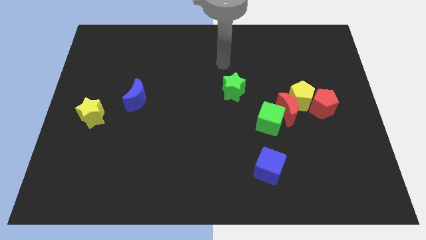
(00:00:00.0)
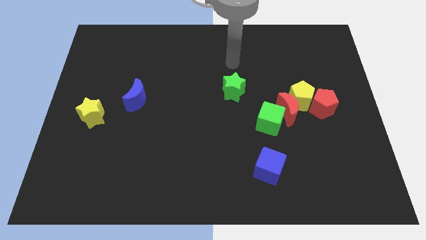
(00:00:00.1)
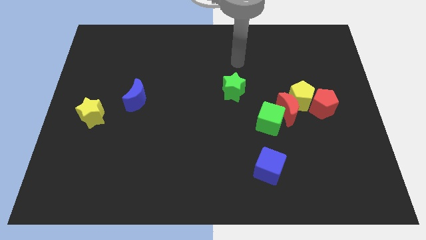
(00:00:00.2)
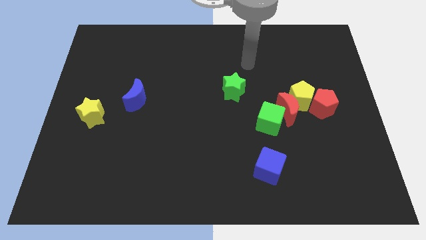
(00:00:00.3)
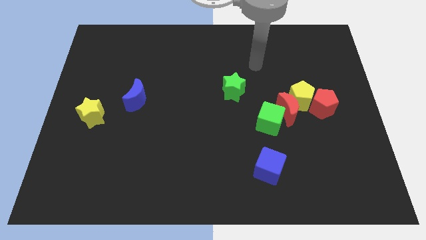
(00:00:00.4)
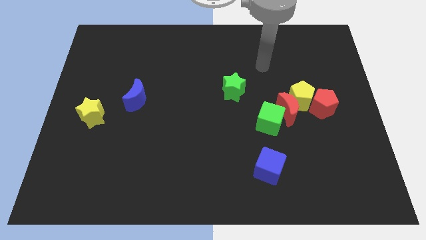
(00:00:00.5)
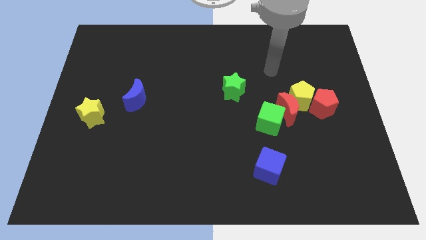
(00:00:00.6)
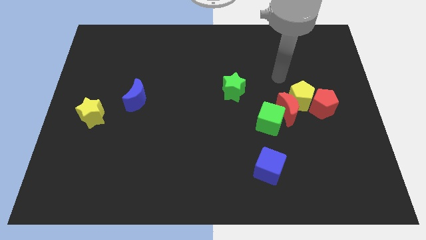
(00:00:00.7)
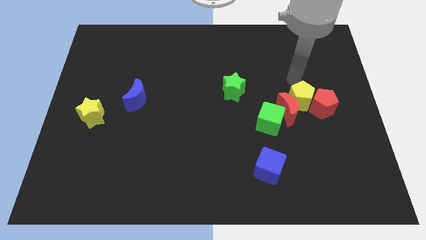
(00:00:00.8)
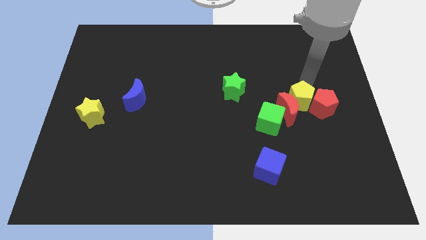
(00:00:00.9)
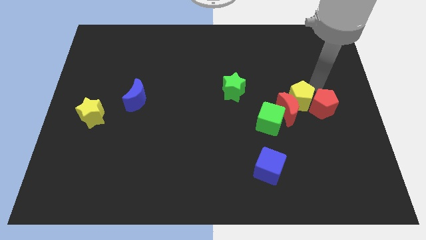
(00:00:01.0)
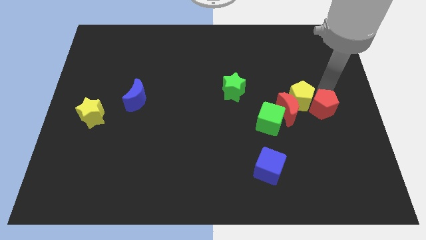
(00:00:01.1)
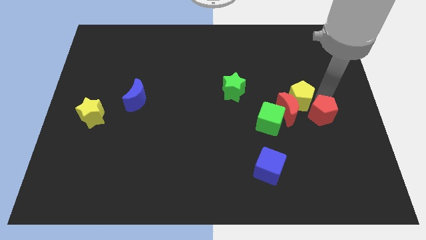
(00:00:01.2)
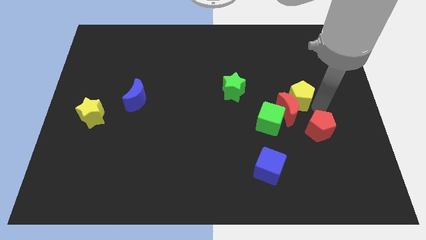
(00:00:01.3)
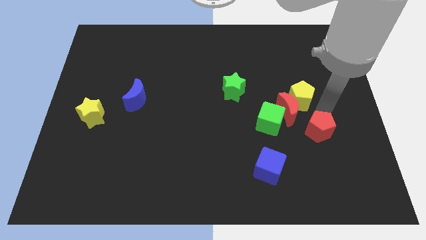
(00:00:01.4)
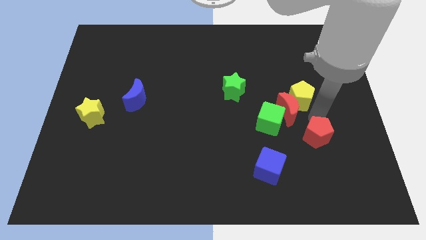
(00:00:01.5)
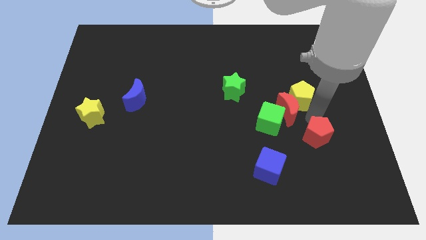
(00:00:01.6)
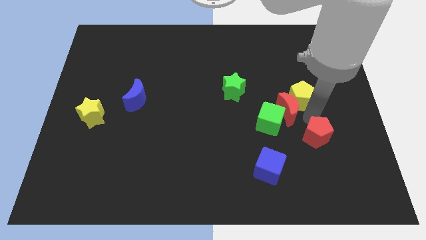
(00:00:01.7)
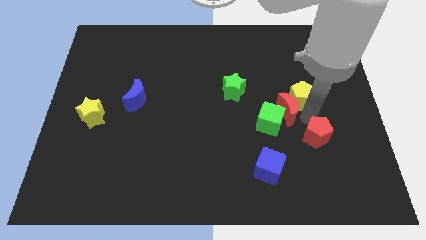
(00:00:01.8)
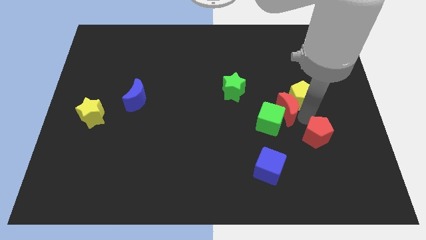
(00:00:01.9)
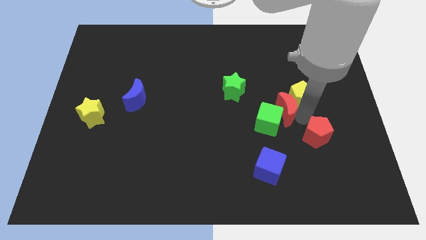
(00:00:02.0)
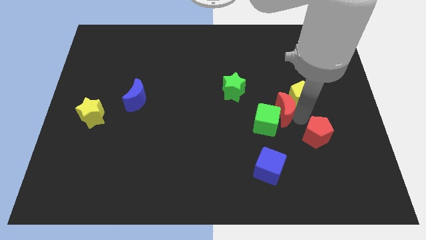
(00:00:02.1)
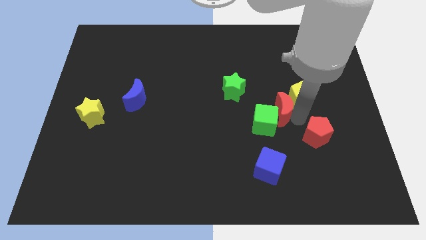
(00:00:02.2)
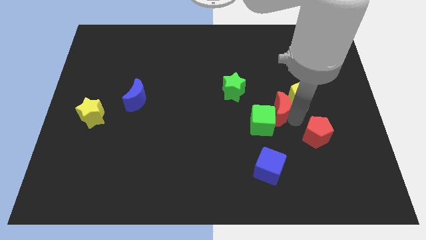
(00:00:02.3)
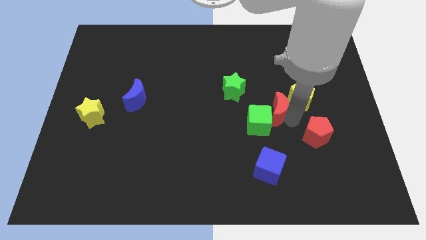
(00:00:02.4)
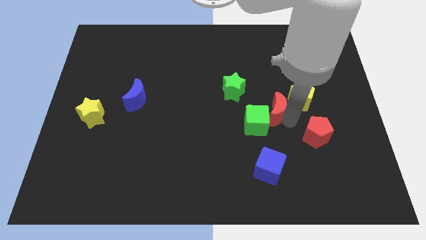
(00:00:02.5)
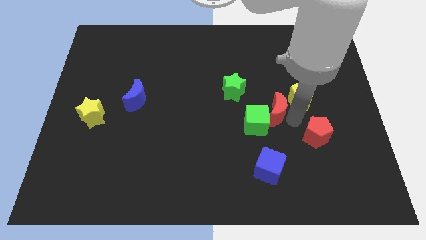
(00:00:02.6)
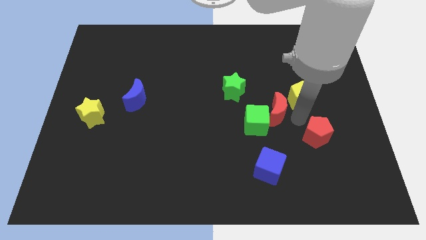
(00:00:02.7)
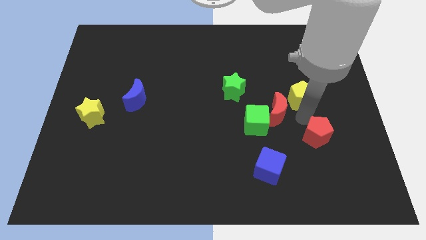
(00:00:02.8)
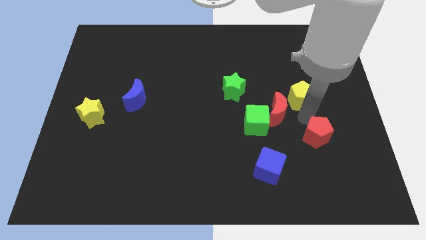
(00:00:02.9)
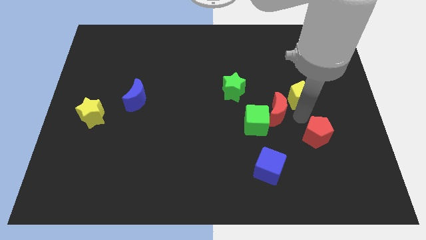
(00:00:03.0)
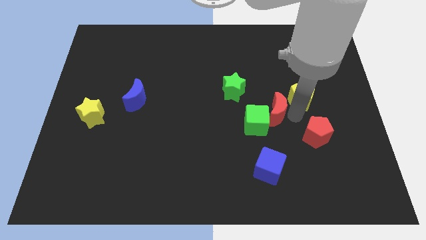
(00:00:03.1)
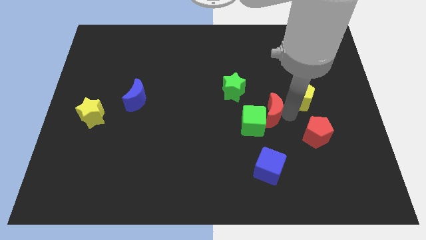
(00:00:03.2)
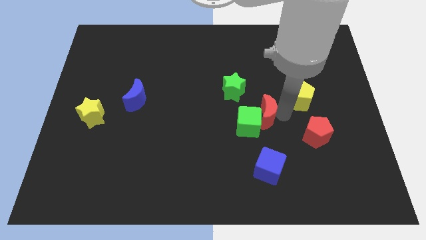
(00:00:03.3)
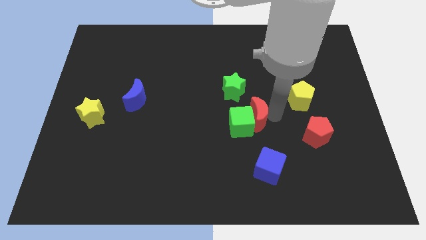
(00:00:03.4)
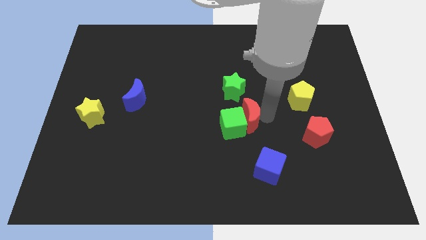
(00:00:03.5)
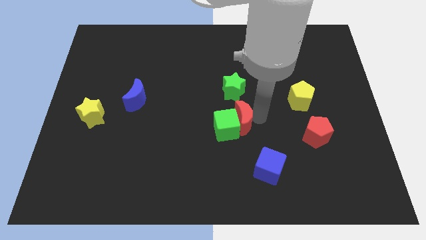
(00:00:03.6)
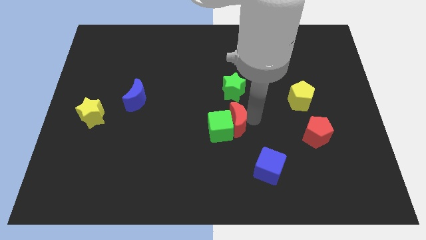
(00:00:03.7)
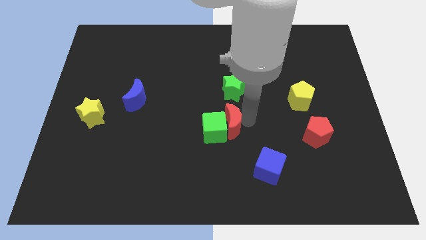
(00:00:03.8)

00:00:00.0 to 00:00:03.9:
move the red moon away from the group of blocks

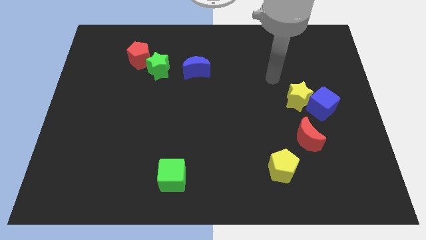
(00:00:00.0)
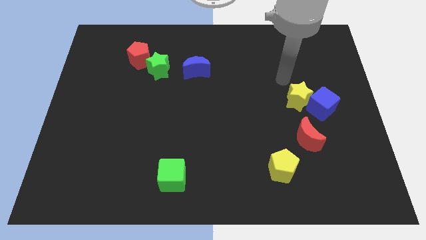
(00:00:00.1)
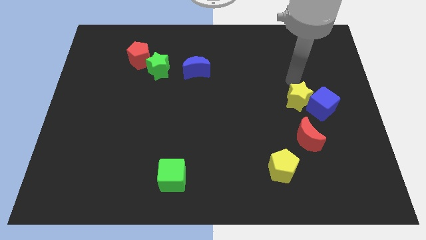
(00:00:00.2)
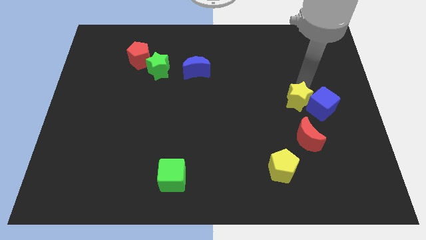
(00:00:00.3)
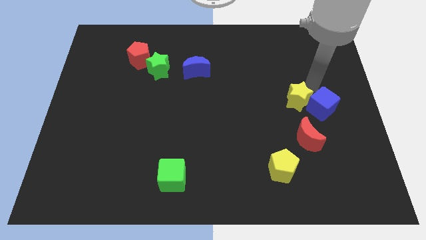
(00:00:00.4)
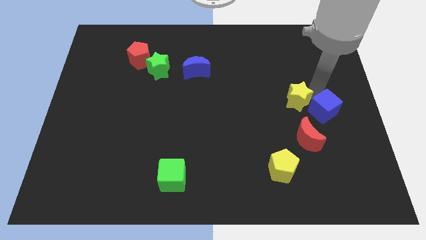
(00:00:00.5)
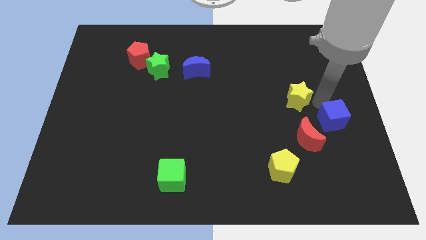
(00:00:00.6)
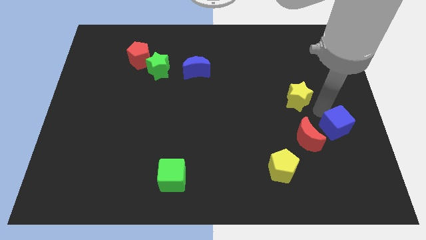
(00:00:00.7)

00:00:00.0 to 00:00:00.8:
move the yellow star away from the blue cube

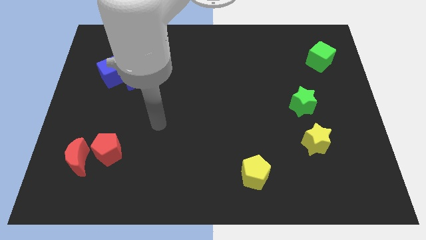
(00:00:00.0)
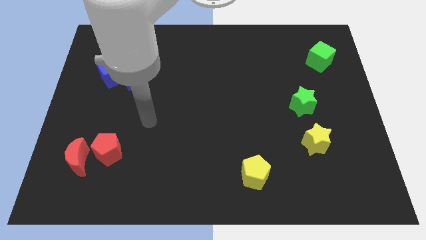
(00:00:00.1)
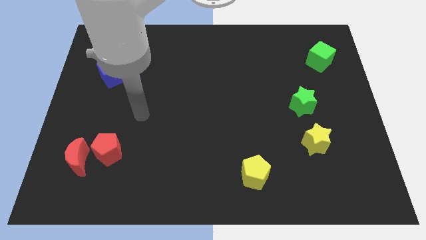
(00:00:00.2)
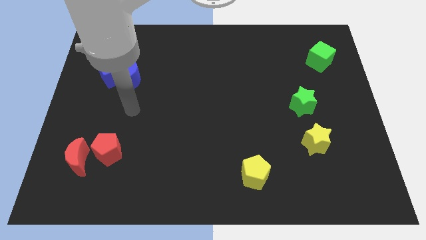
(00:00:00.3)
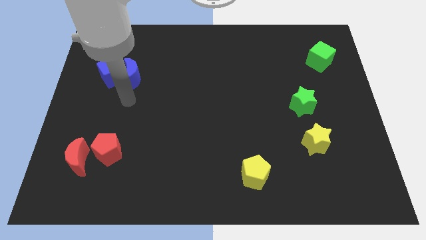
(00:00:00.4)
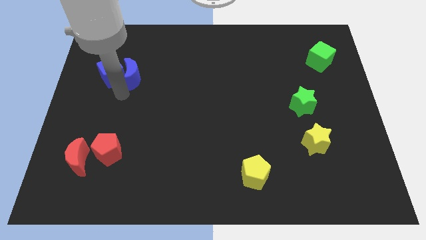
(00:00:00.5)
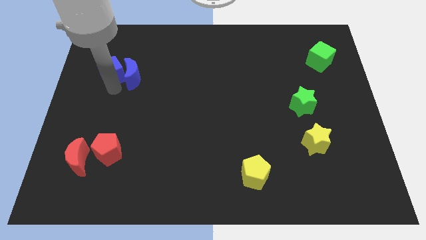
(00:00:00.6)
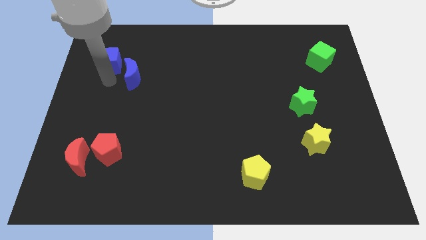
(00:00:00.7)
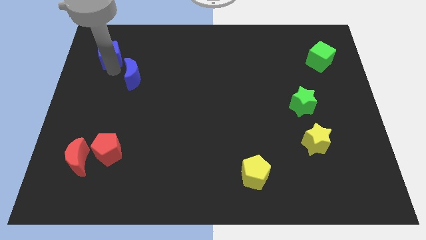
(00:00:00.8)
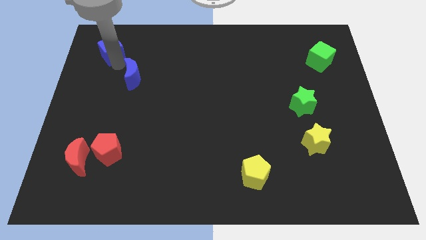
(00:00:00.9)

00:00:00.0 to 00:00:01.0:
pull the blue moon apart from the blue cube

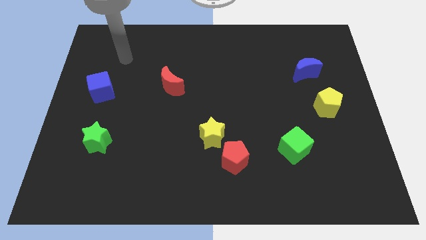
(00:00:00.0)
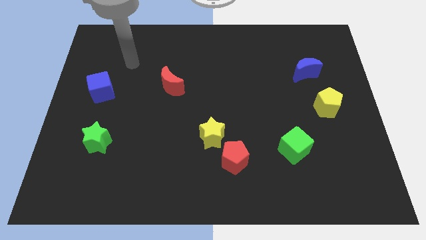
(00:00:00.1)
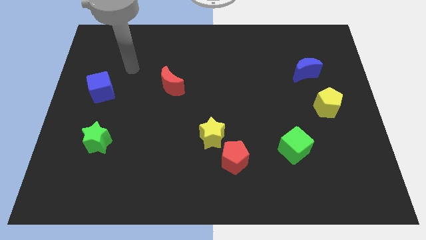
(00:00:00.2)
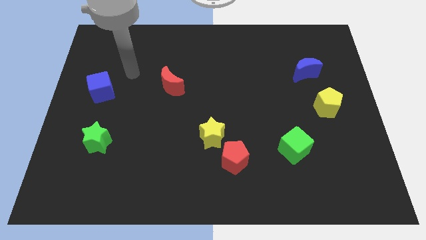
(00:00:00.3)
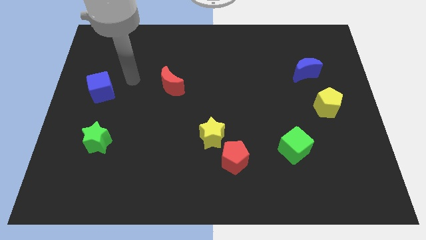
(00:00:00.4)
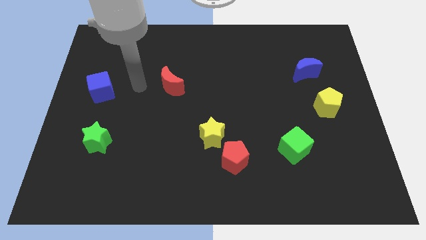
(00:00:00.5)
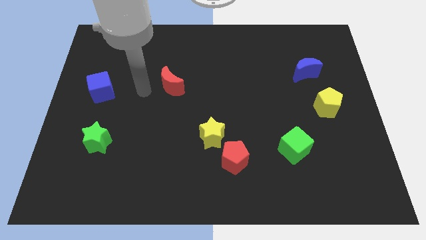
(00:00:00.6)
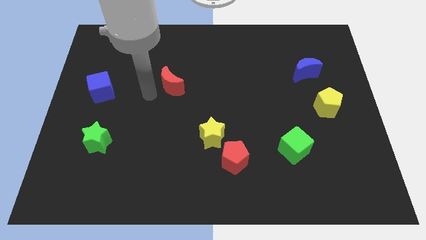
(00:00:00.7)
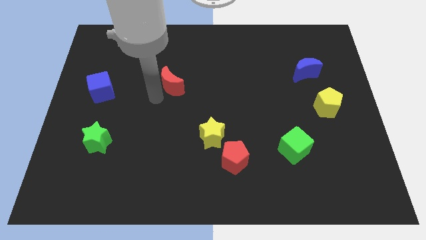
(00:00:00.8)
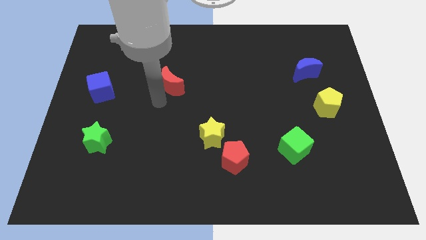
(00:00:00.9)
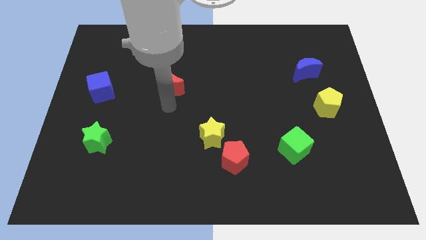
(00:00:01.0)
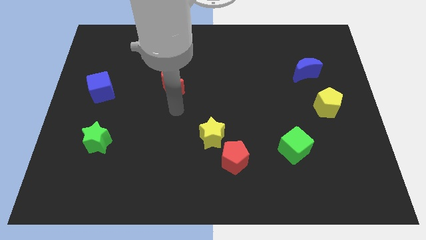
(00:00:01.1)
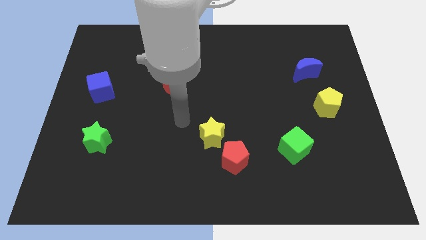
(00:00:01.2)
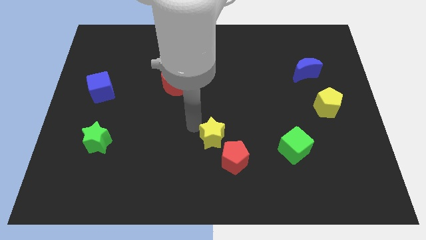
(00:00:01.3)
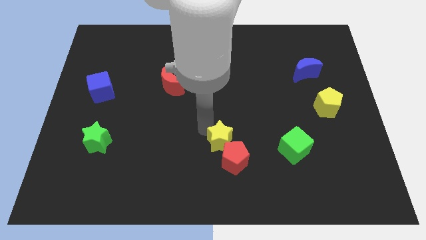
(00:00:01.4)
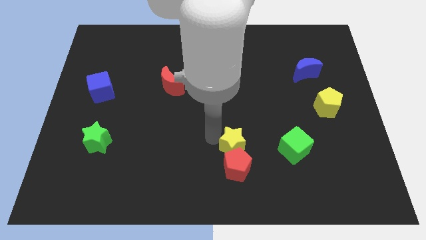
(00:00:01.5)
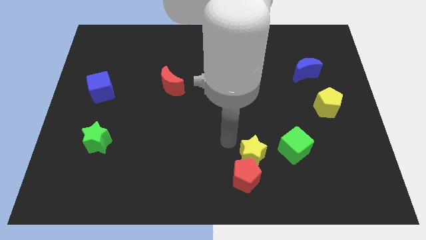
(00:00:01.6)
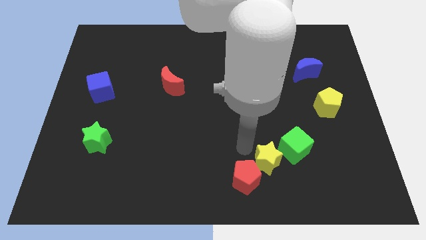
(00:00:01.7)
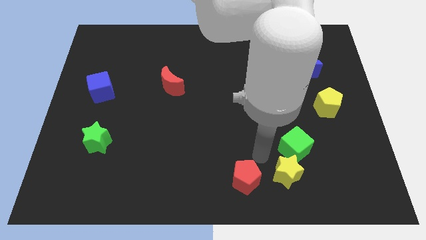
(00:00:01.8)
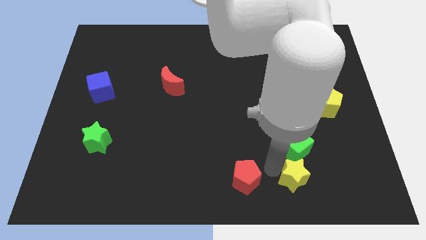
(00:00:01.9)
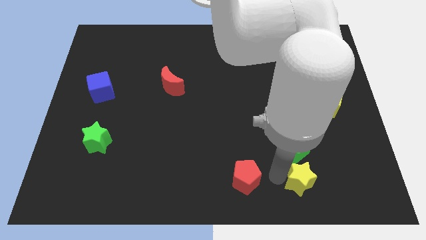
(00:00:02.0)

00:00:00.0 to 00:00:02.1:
pull the red pentagon apart from the yellow star

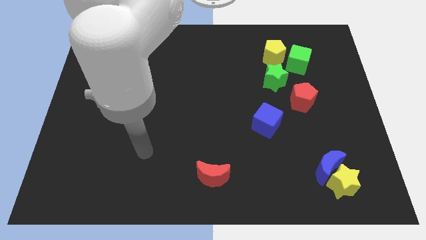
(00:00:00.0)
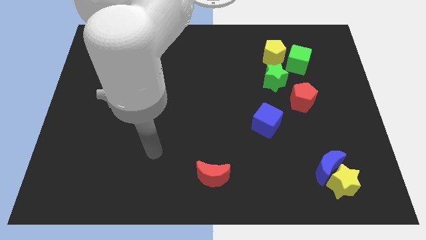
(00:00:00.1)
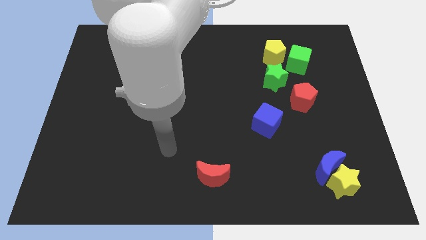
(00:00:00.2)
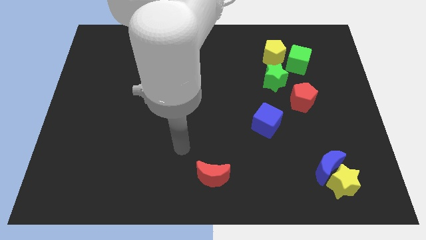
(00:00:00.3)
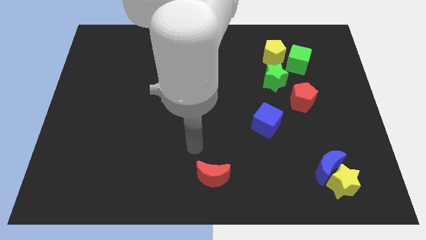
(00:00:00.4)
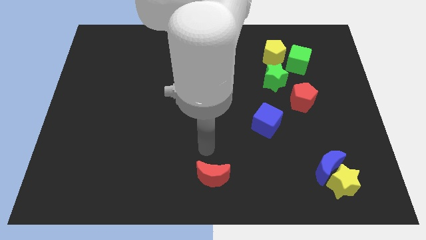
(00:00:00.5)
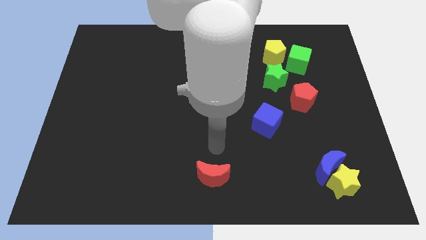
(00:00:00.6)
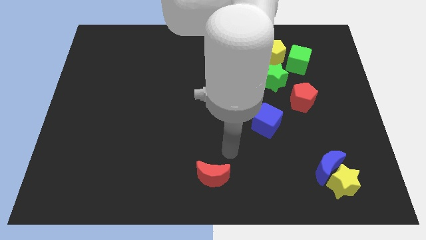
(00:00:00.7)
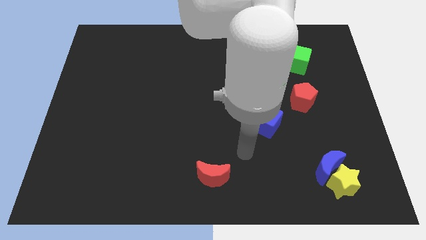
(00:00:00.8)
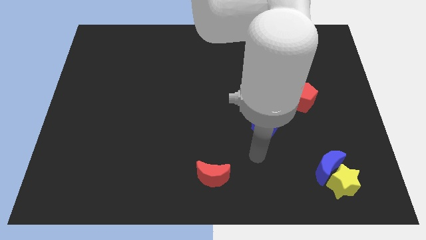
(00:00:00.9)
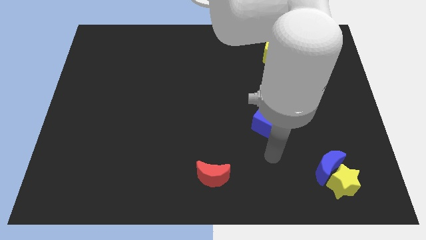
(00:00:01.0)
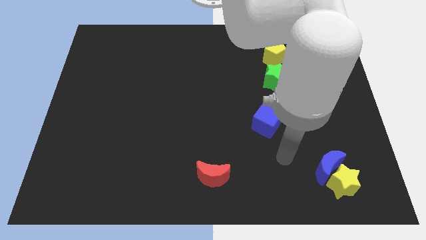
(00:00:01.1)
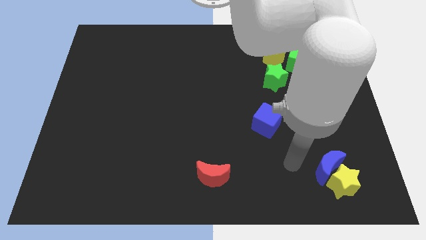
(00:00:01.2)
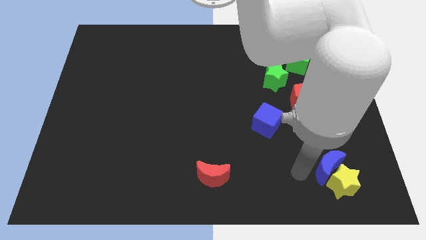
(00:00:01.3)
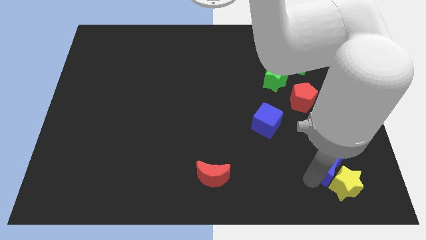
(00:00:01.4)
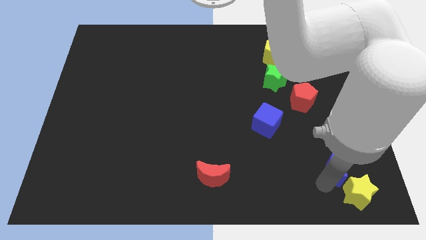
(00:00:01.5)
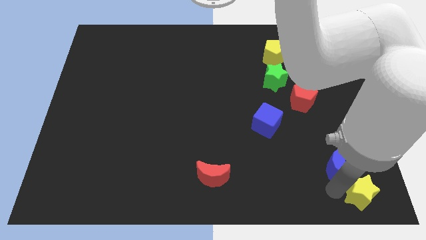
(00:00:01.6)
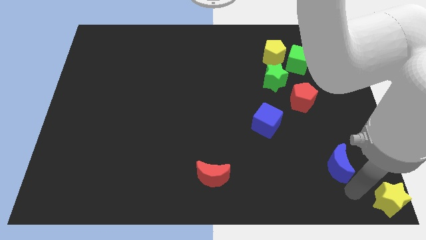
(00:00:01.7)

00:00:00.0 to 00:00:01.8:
pull the blue moon apart from the yellow star
